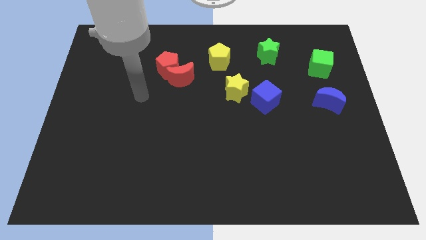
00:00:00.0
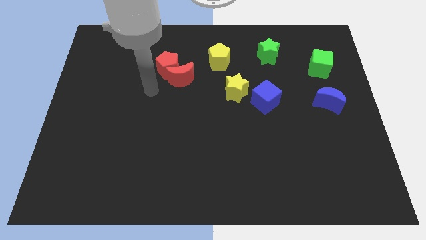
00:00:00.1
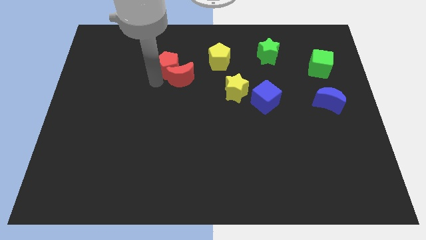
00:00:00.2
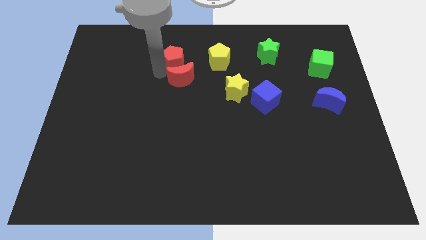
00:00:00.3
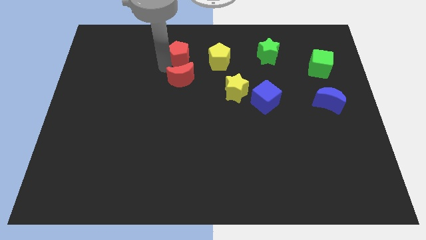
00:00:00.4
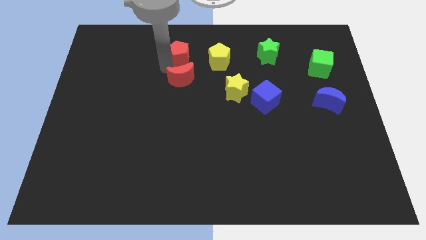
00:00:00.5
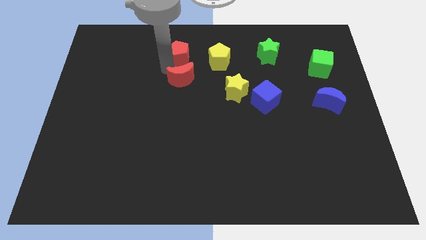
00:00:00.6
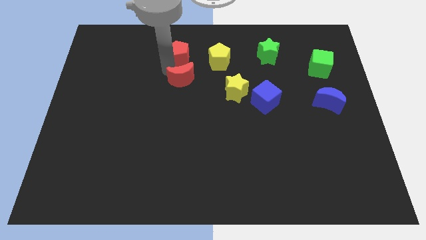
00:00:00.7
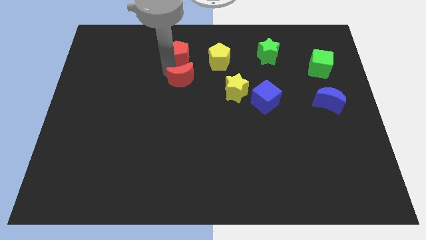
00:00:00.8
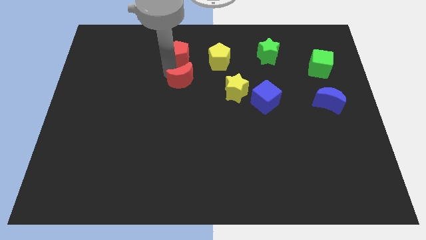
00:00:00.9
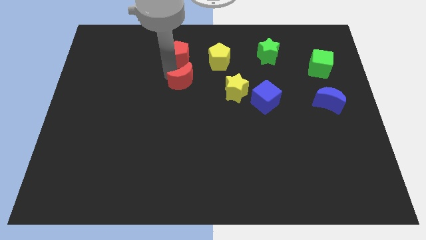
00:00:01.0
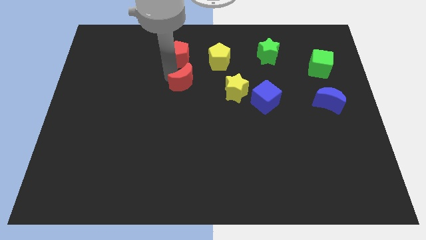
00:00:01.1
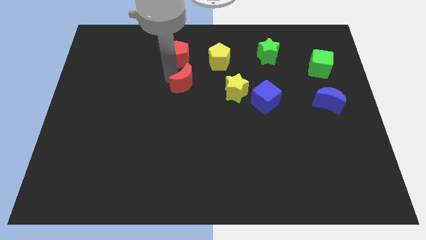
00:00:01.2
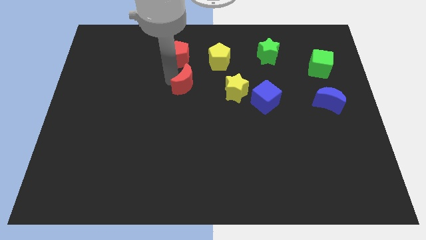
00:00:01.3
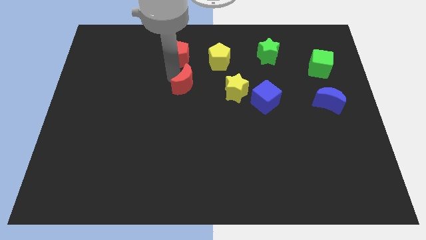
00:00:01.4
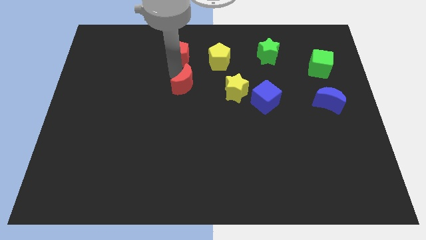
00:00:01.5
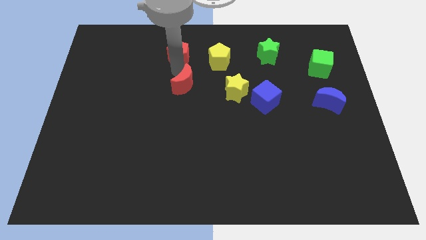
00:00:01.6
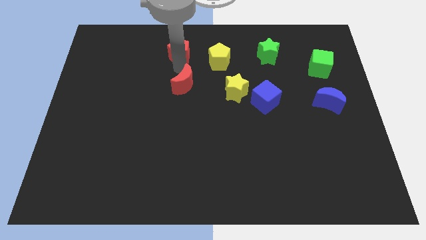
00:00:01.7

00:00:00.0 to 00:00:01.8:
pull the red moon apart from the red pentagon

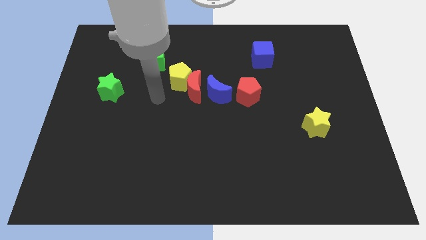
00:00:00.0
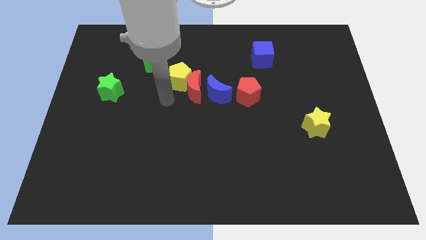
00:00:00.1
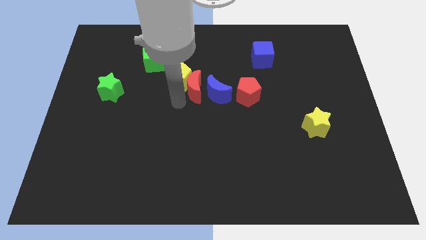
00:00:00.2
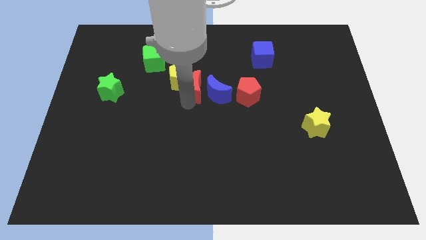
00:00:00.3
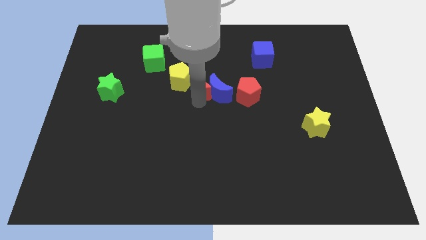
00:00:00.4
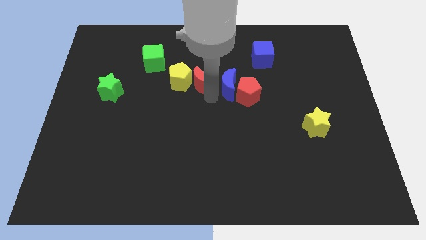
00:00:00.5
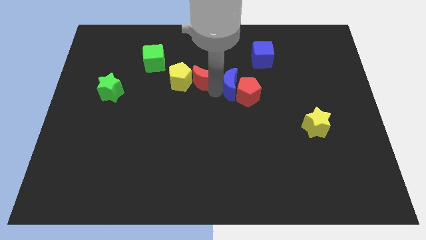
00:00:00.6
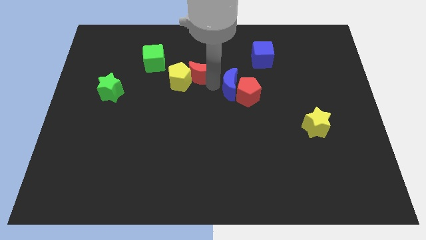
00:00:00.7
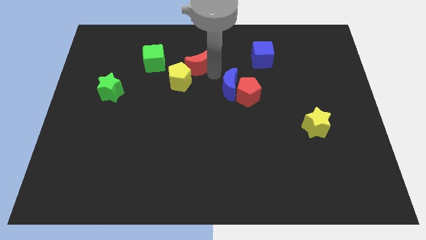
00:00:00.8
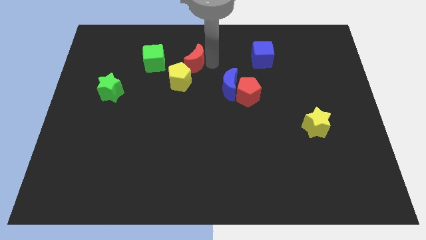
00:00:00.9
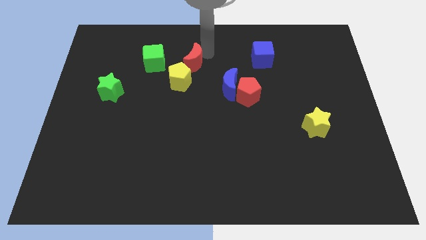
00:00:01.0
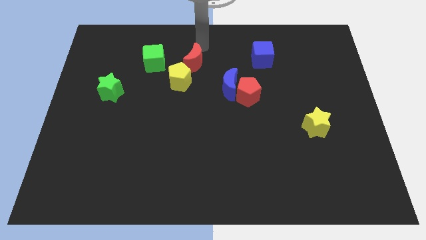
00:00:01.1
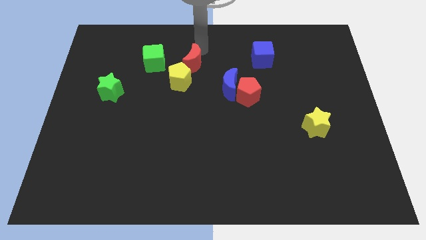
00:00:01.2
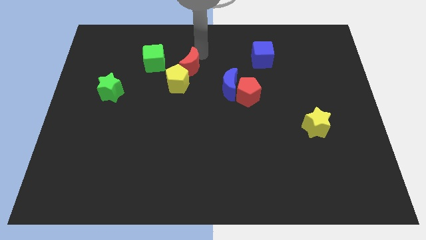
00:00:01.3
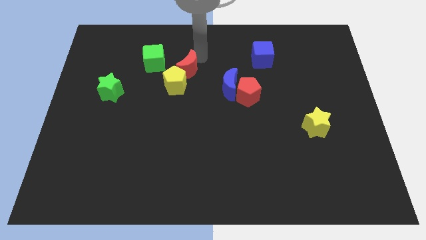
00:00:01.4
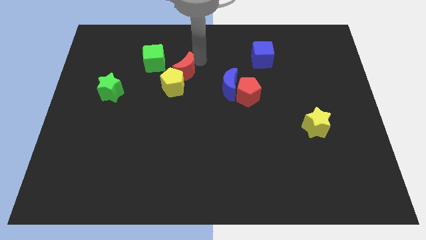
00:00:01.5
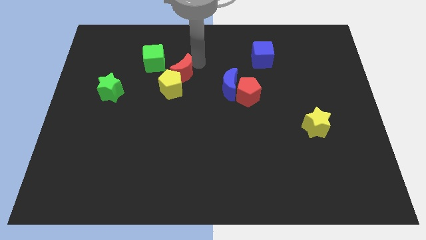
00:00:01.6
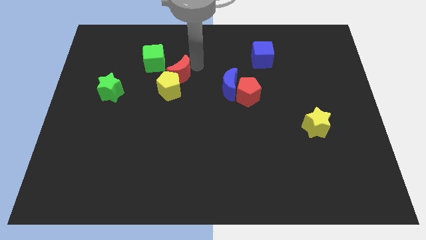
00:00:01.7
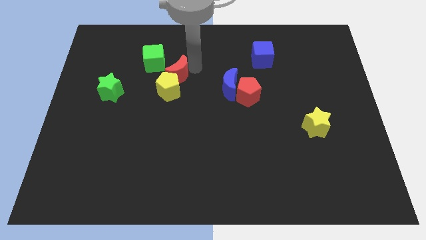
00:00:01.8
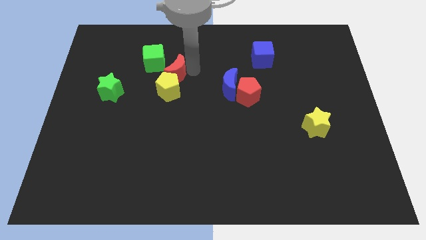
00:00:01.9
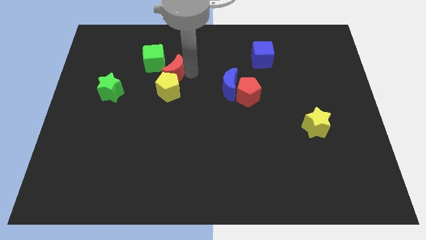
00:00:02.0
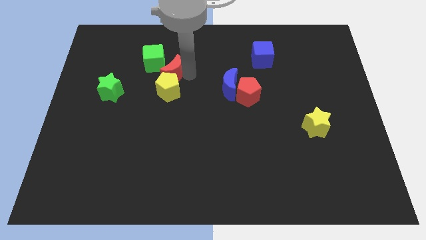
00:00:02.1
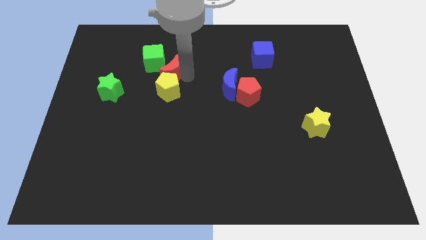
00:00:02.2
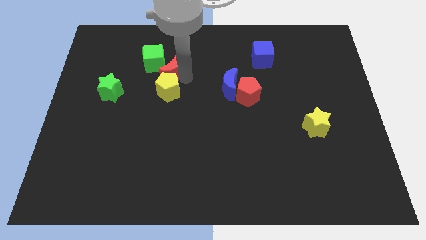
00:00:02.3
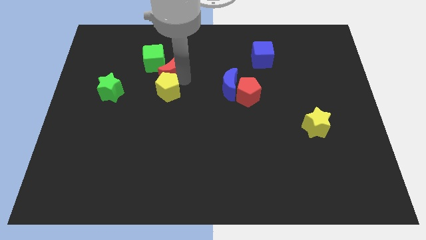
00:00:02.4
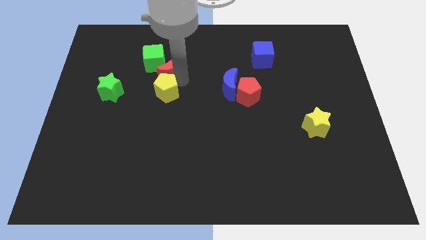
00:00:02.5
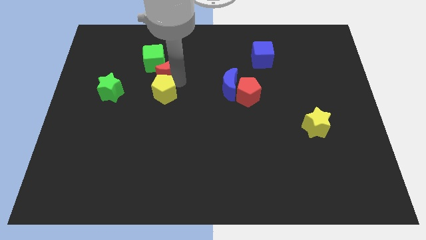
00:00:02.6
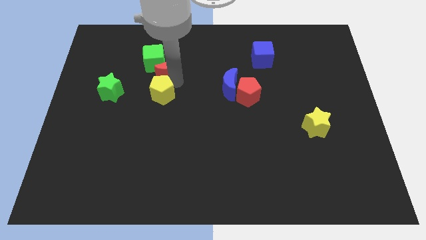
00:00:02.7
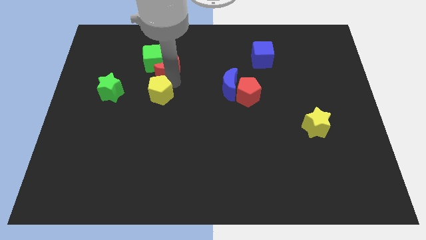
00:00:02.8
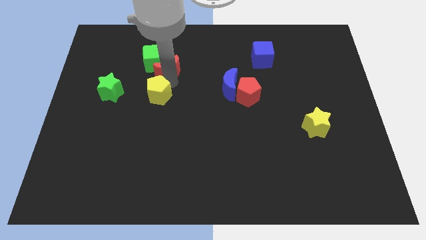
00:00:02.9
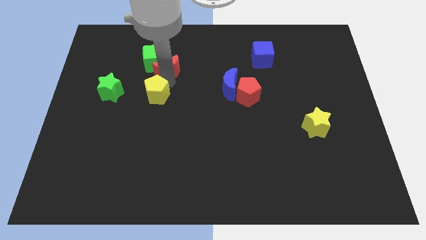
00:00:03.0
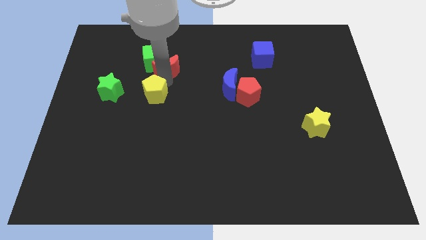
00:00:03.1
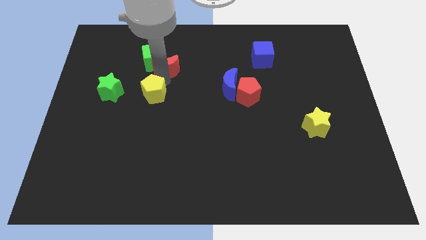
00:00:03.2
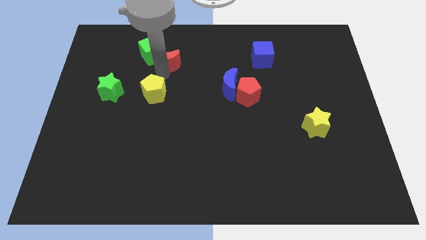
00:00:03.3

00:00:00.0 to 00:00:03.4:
separate the red moon from the yellow pentagon and blue moon

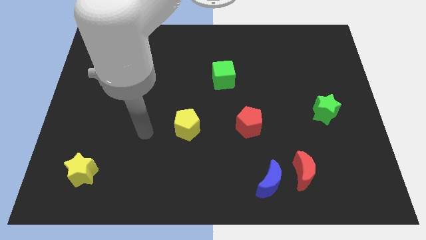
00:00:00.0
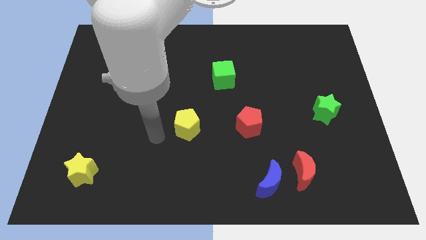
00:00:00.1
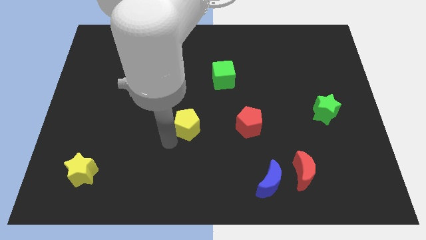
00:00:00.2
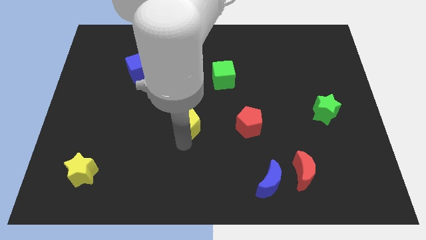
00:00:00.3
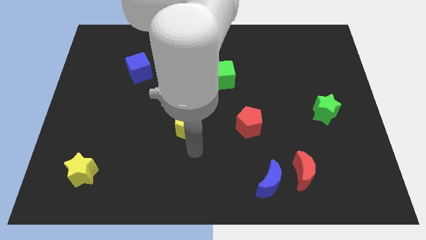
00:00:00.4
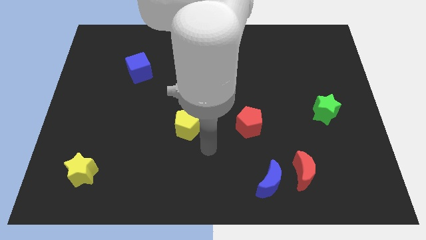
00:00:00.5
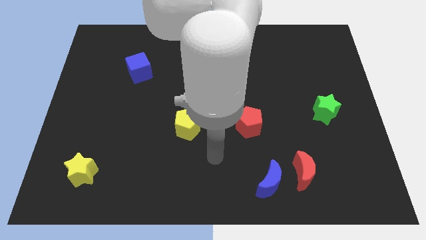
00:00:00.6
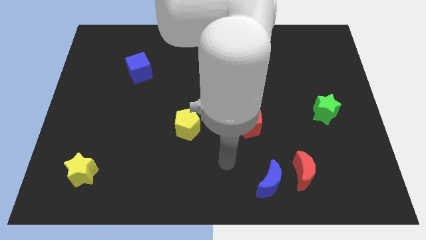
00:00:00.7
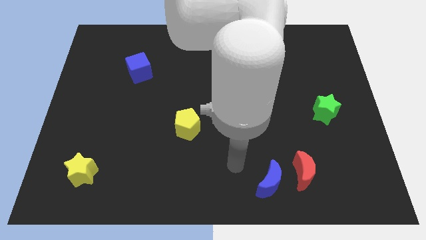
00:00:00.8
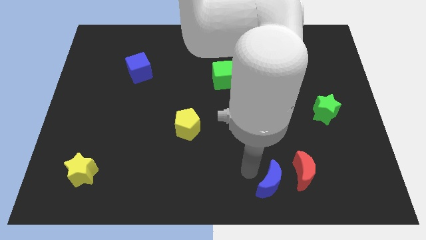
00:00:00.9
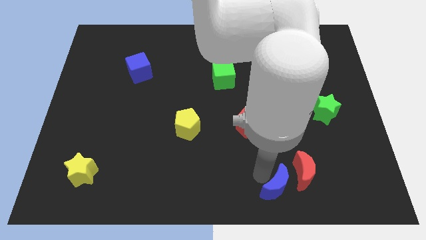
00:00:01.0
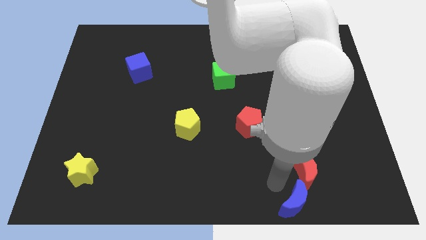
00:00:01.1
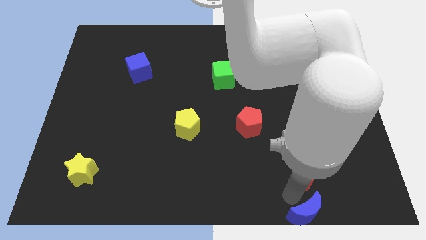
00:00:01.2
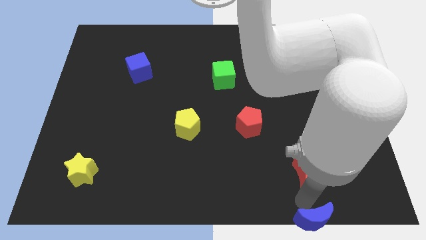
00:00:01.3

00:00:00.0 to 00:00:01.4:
move the red moon away from the blue moon

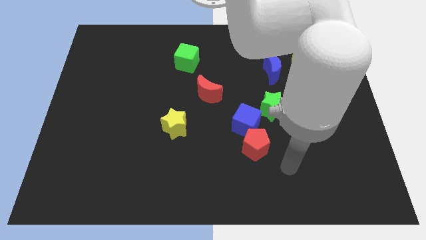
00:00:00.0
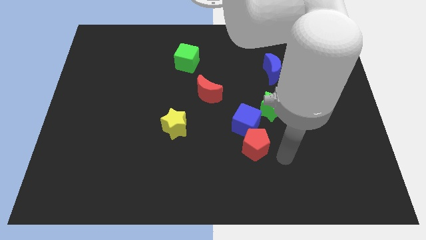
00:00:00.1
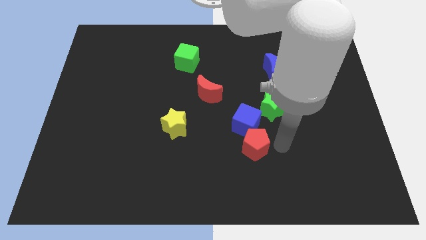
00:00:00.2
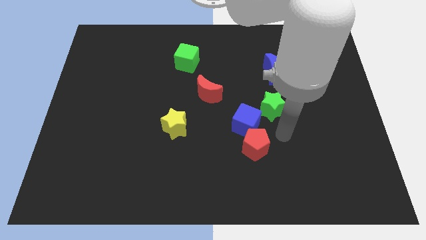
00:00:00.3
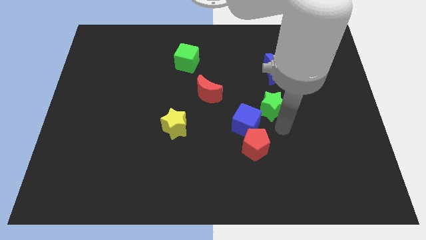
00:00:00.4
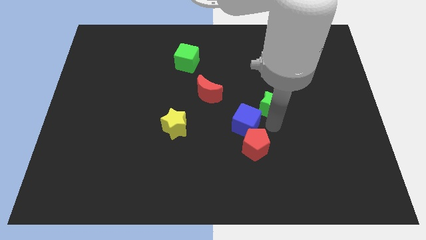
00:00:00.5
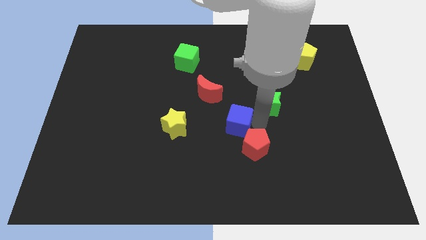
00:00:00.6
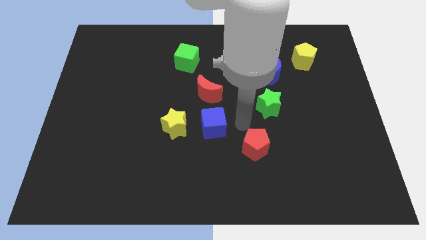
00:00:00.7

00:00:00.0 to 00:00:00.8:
move the red pentagon away from the blue cube

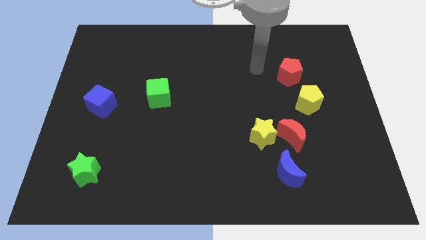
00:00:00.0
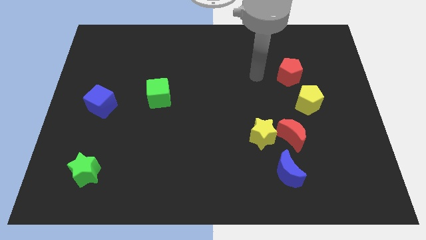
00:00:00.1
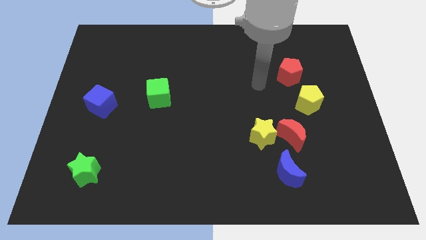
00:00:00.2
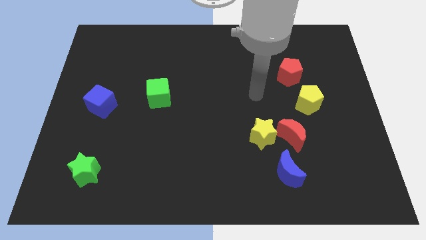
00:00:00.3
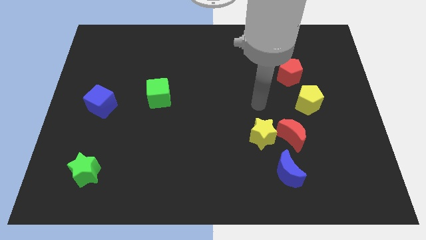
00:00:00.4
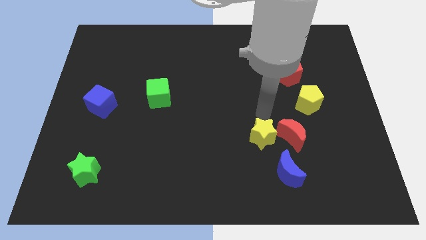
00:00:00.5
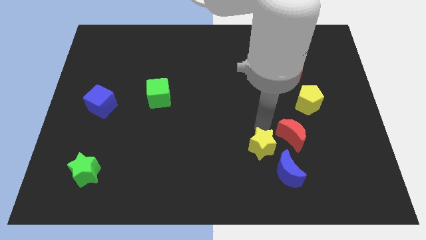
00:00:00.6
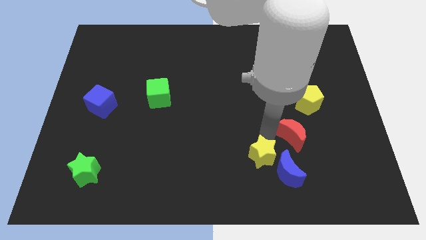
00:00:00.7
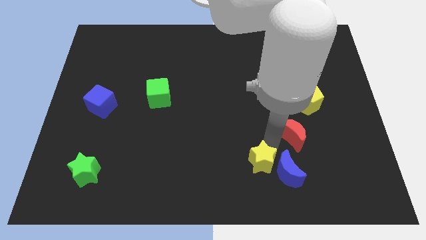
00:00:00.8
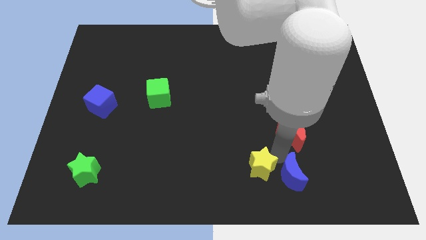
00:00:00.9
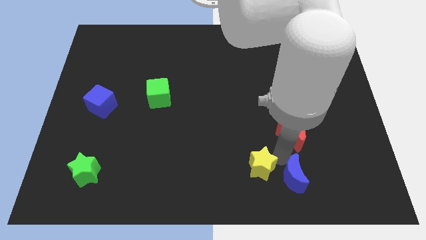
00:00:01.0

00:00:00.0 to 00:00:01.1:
pull the red moon apart from the yellow star and blue moon

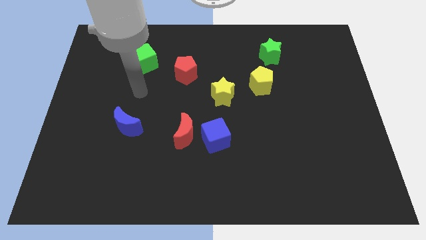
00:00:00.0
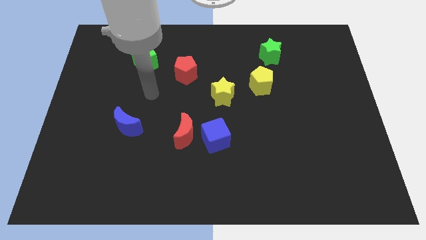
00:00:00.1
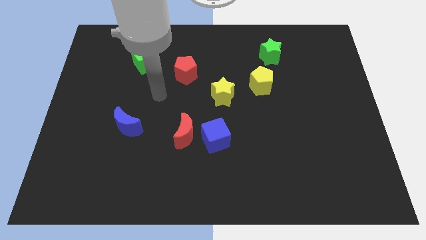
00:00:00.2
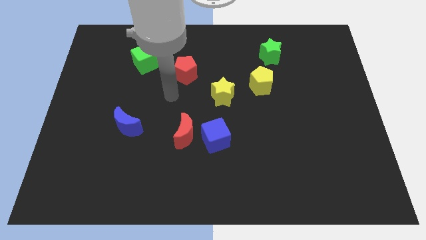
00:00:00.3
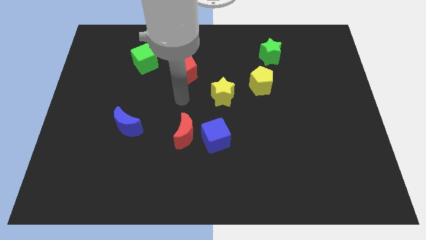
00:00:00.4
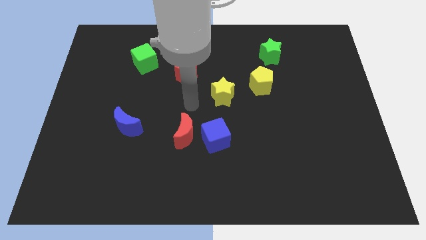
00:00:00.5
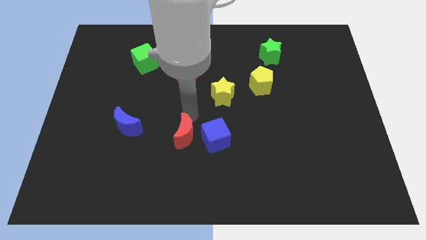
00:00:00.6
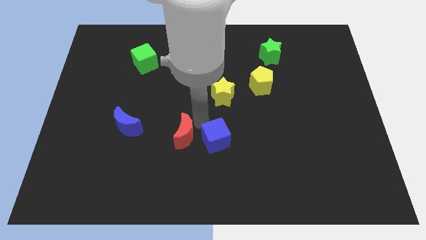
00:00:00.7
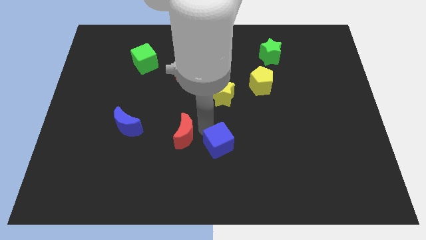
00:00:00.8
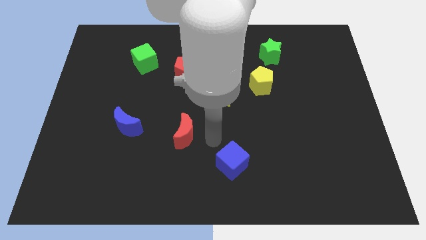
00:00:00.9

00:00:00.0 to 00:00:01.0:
pull the red moon apart from the blue cube
